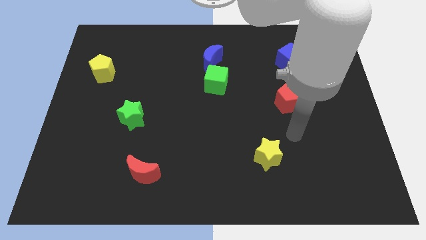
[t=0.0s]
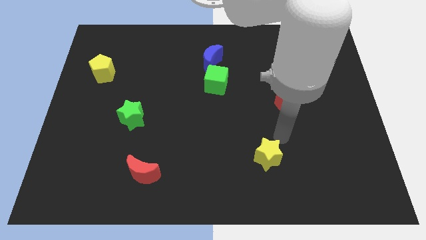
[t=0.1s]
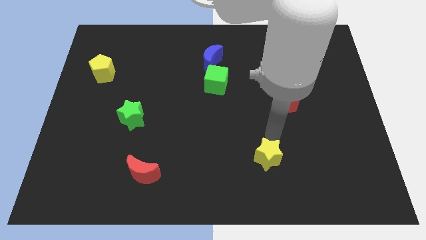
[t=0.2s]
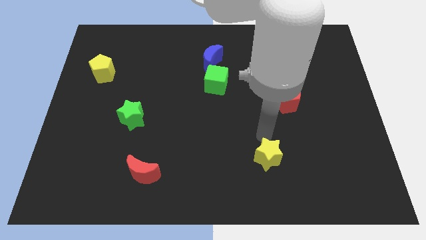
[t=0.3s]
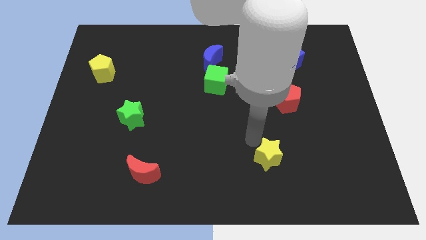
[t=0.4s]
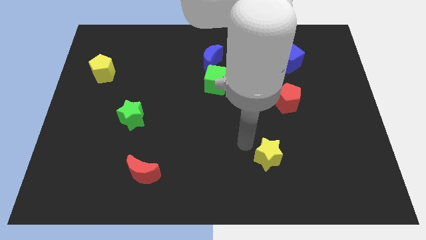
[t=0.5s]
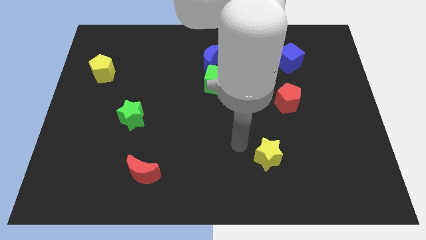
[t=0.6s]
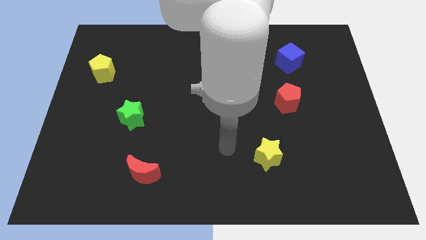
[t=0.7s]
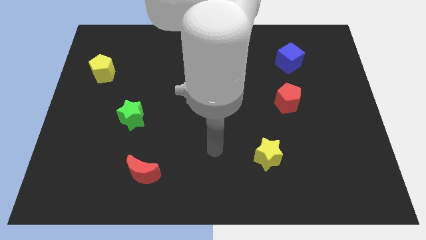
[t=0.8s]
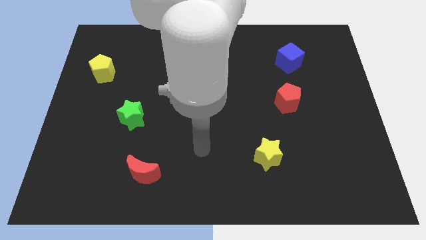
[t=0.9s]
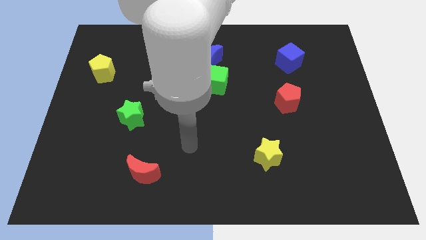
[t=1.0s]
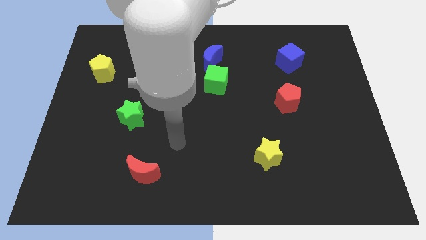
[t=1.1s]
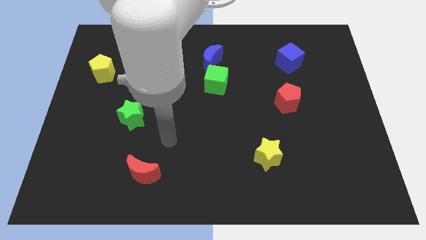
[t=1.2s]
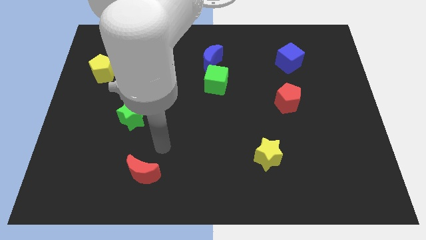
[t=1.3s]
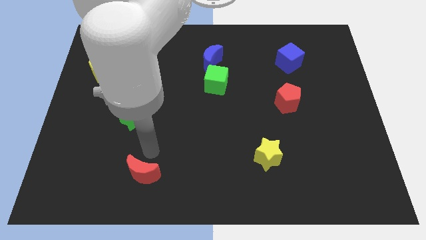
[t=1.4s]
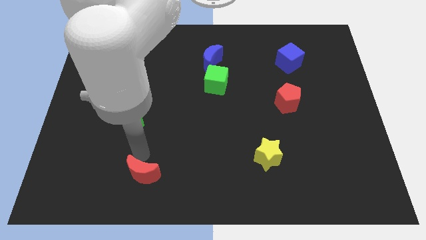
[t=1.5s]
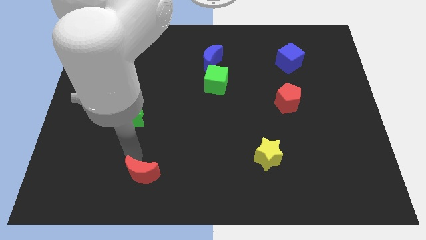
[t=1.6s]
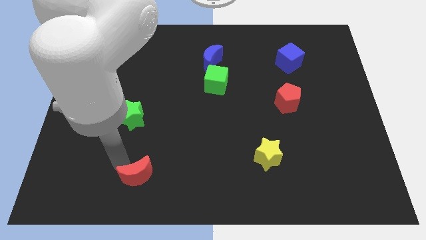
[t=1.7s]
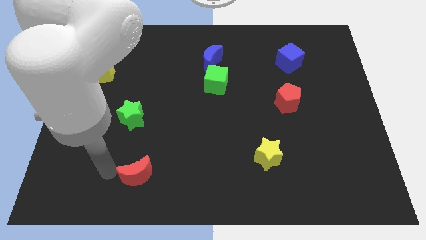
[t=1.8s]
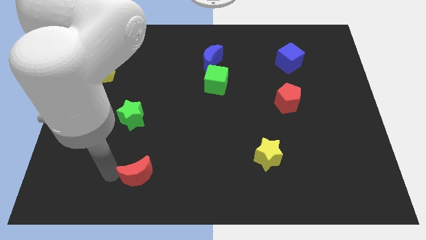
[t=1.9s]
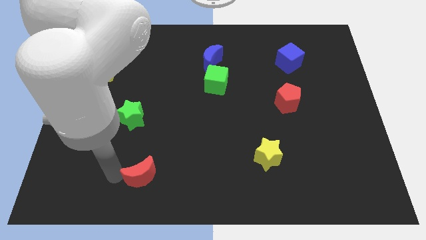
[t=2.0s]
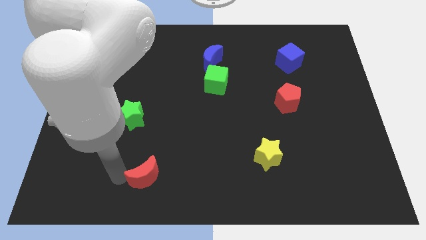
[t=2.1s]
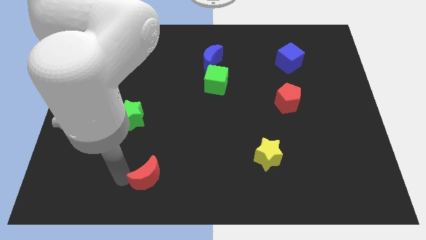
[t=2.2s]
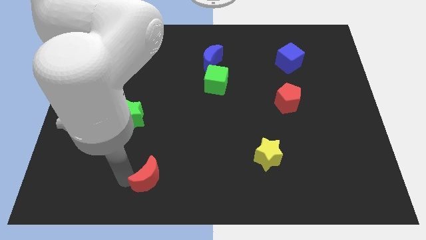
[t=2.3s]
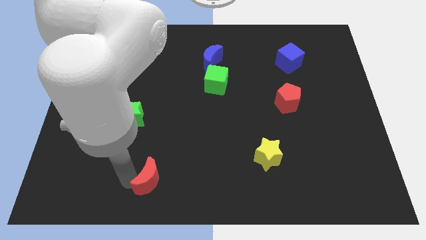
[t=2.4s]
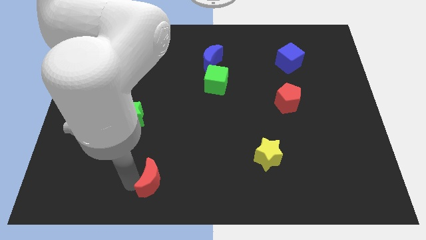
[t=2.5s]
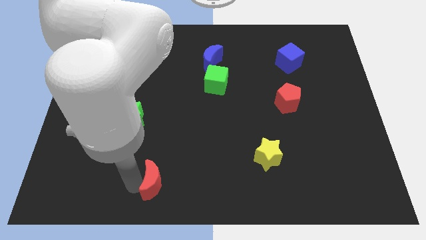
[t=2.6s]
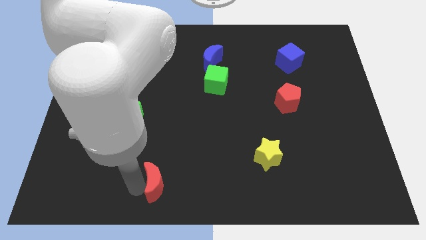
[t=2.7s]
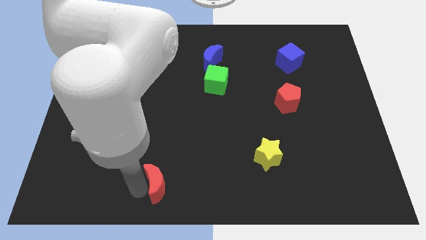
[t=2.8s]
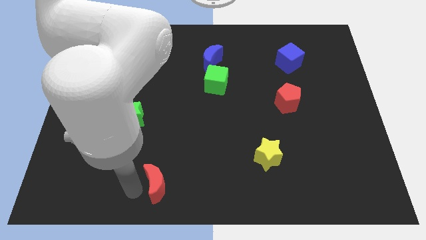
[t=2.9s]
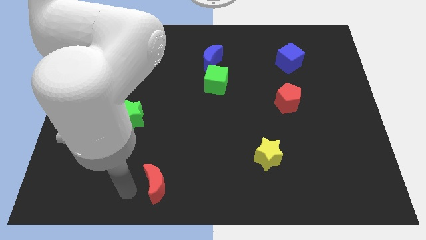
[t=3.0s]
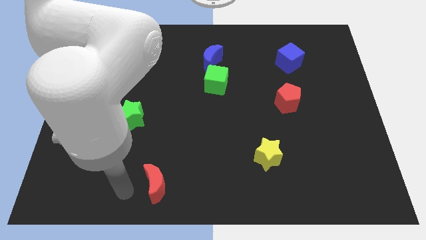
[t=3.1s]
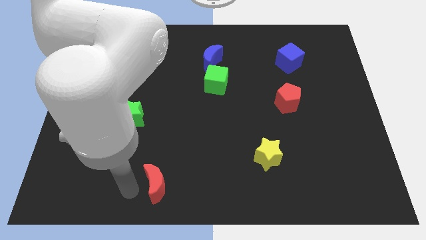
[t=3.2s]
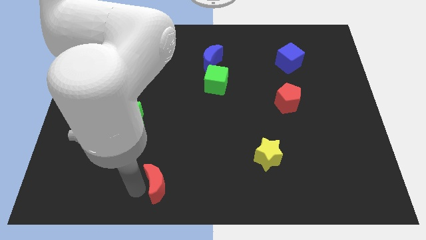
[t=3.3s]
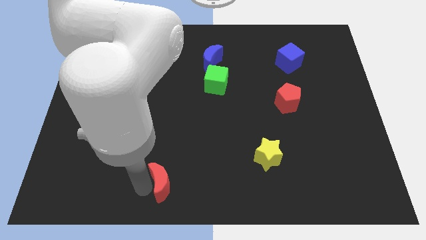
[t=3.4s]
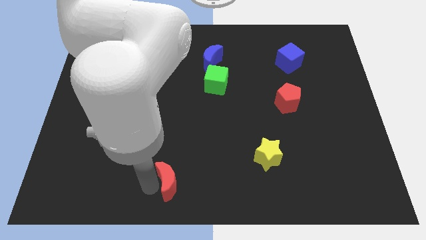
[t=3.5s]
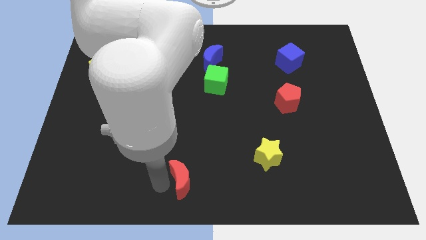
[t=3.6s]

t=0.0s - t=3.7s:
push the red moon slightly right

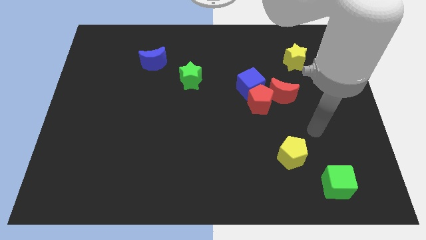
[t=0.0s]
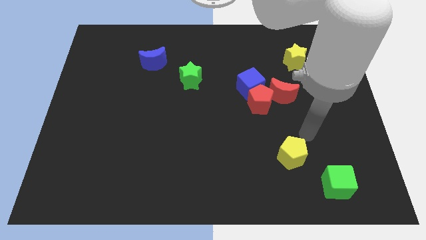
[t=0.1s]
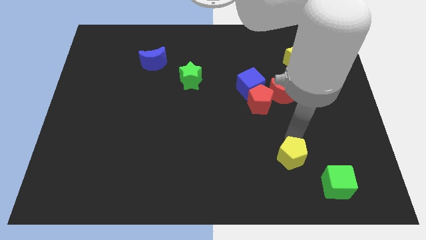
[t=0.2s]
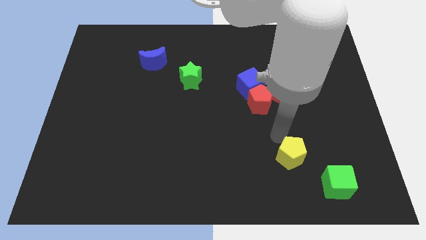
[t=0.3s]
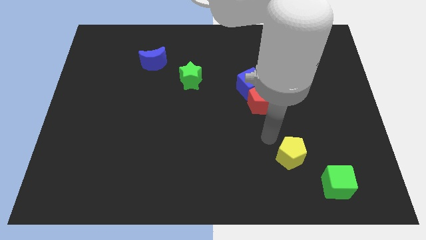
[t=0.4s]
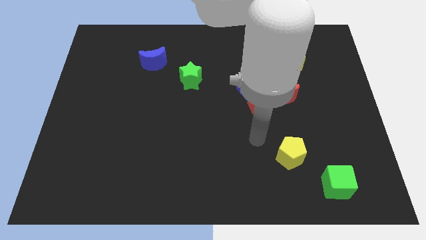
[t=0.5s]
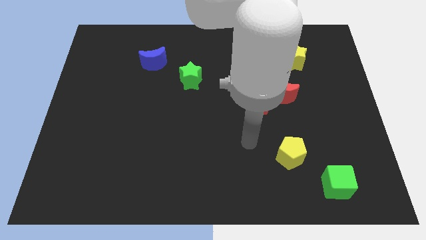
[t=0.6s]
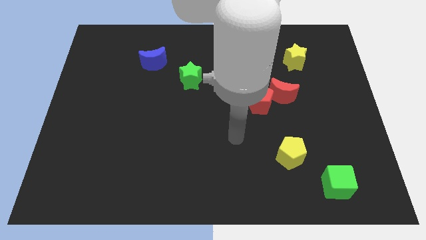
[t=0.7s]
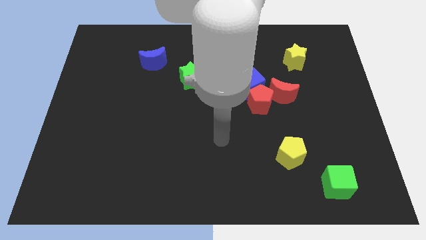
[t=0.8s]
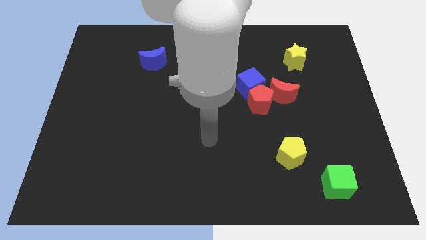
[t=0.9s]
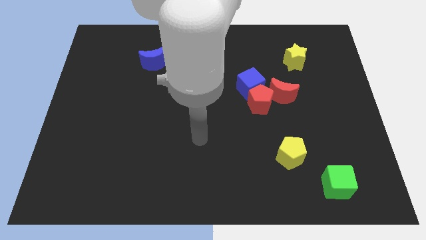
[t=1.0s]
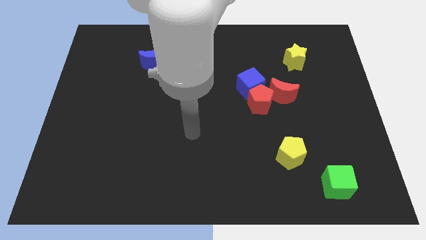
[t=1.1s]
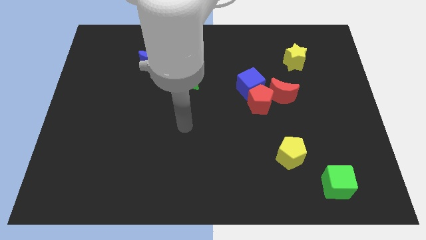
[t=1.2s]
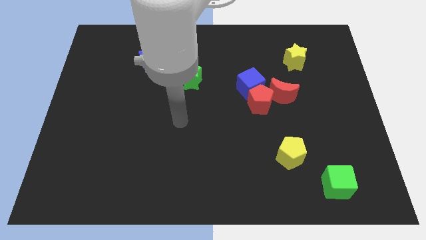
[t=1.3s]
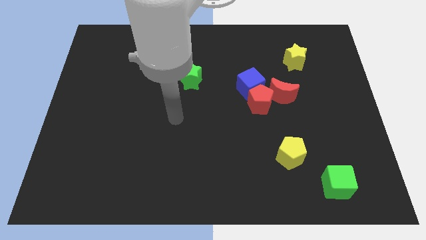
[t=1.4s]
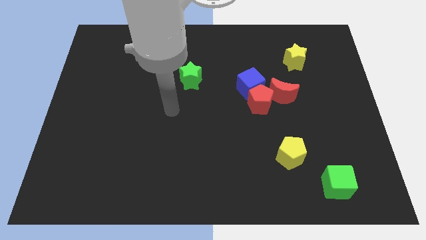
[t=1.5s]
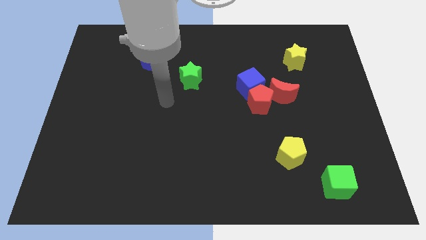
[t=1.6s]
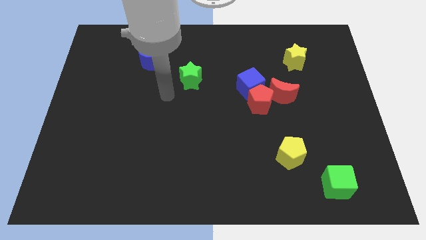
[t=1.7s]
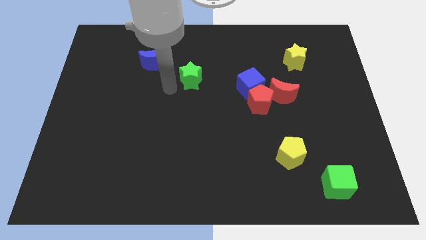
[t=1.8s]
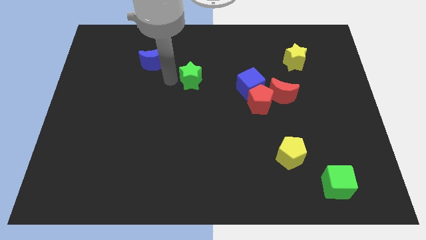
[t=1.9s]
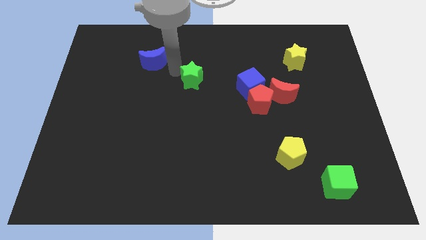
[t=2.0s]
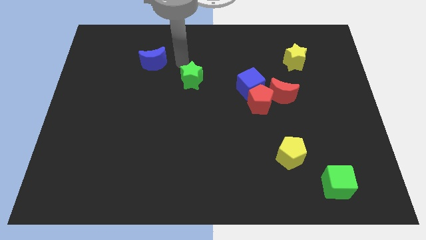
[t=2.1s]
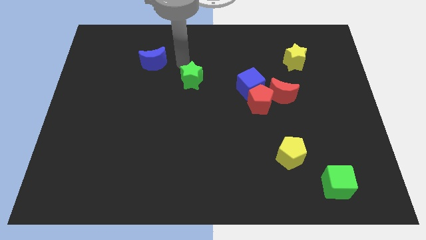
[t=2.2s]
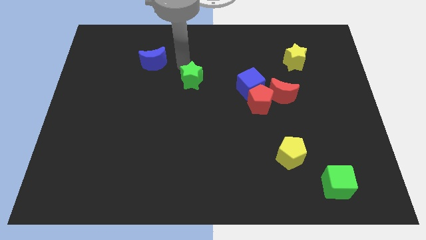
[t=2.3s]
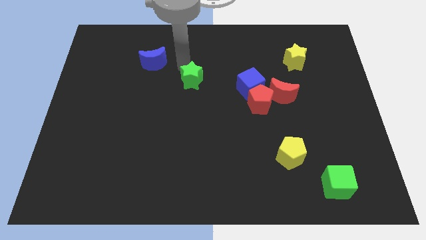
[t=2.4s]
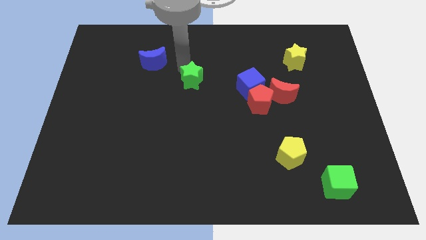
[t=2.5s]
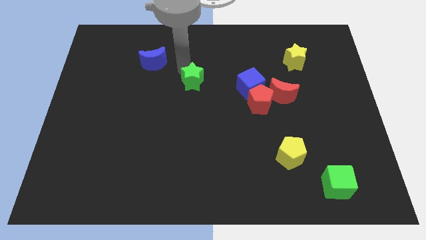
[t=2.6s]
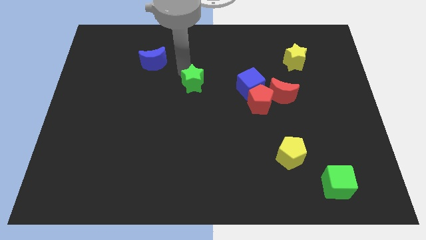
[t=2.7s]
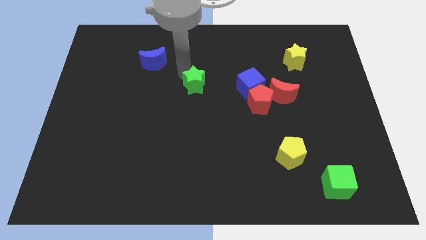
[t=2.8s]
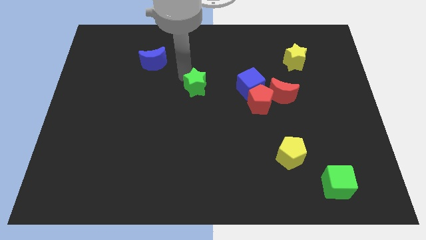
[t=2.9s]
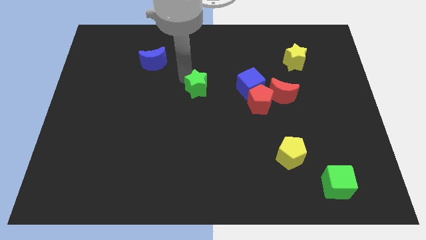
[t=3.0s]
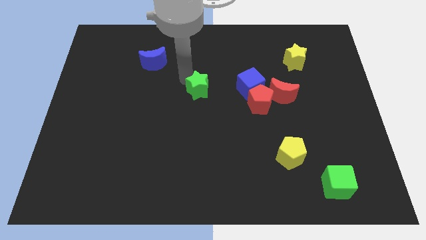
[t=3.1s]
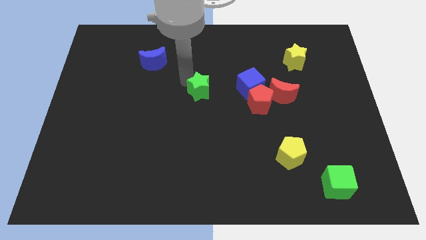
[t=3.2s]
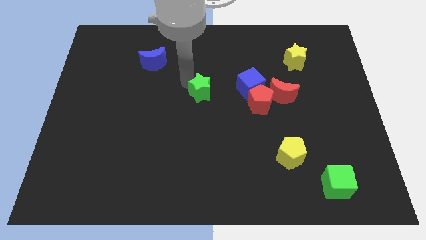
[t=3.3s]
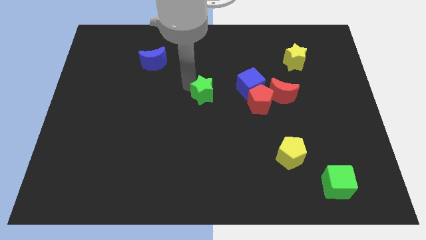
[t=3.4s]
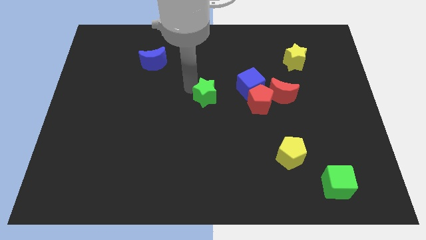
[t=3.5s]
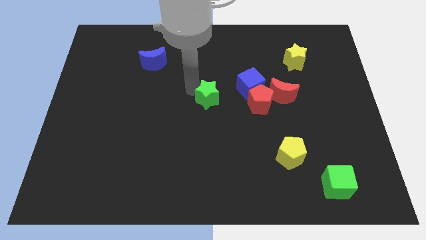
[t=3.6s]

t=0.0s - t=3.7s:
slightly push the green star down and then right

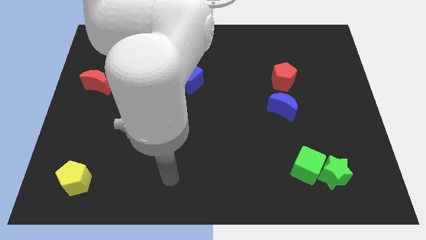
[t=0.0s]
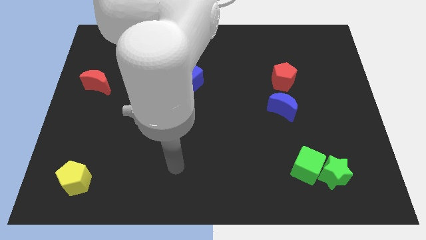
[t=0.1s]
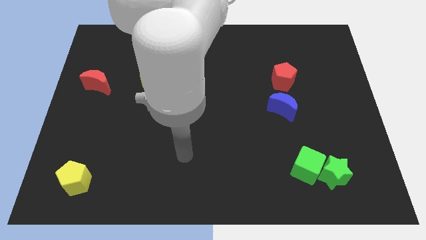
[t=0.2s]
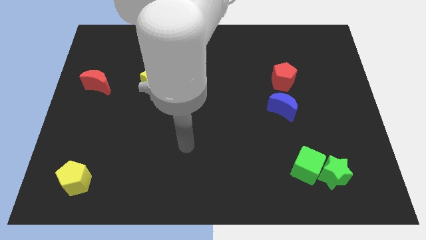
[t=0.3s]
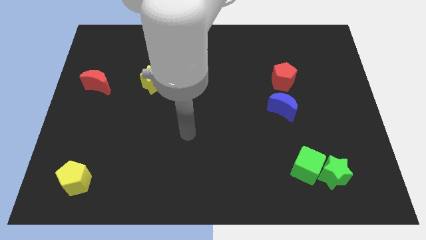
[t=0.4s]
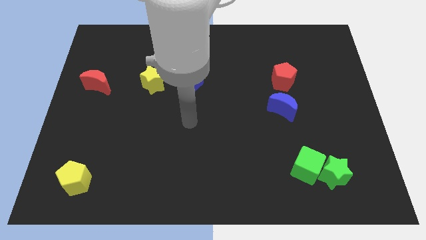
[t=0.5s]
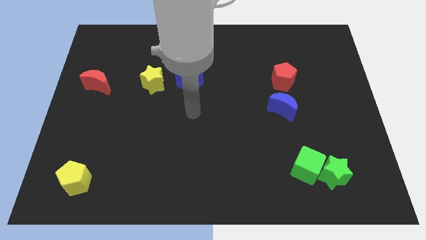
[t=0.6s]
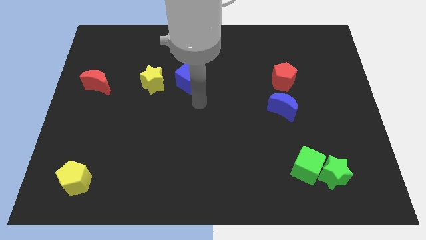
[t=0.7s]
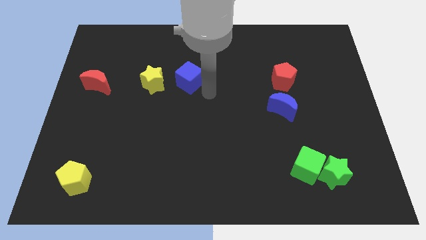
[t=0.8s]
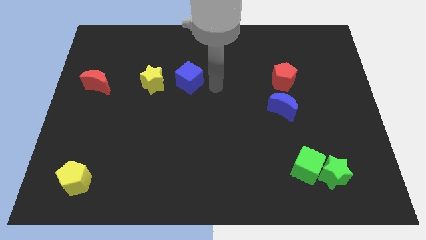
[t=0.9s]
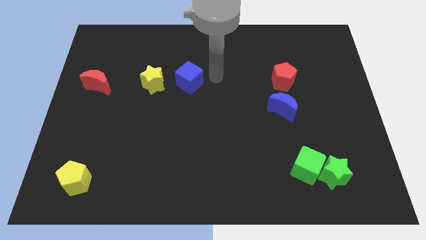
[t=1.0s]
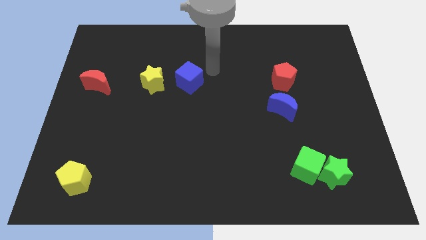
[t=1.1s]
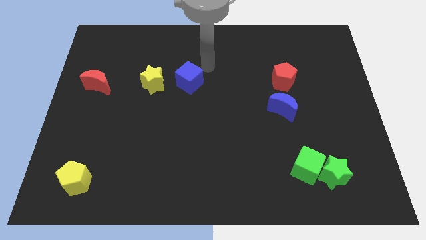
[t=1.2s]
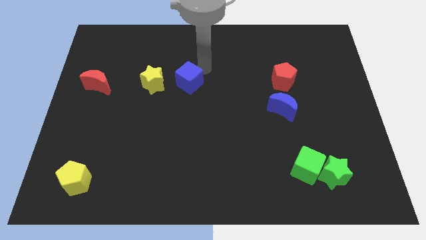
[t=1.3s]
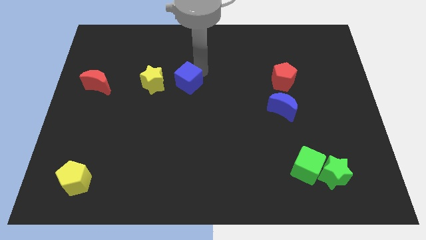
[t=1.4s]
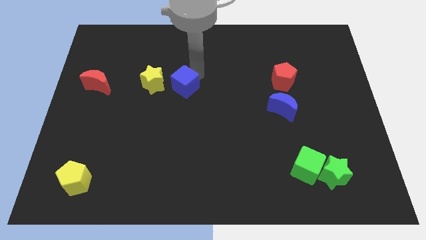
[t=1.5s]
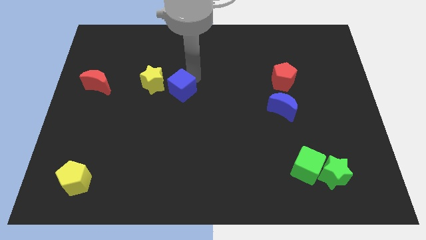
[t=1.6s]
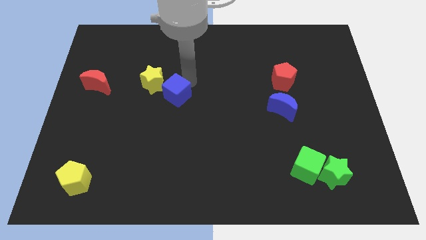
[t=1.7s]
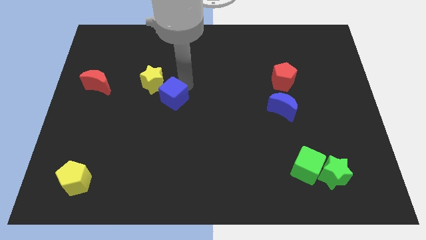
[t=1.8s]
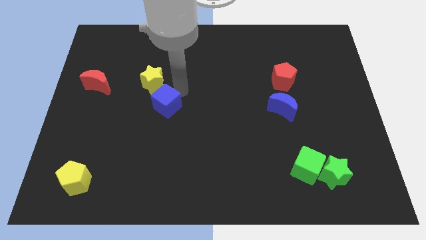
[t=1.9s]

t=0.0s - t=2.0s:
push the blue cube downwards and left a little
